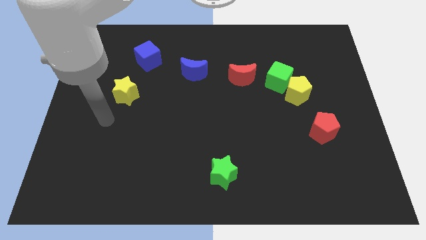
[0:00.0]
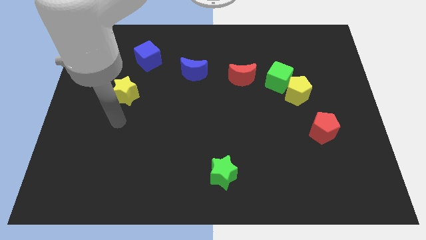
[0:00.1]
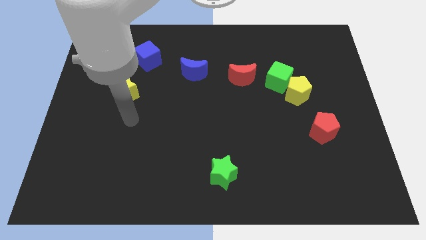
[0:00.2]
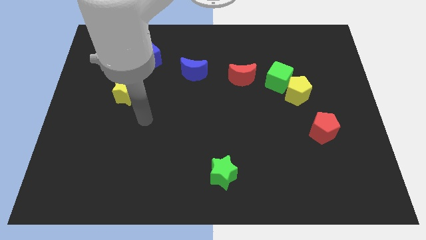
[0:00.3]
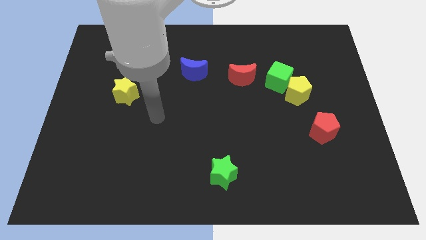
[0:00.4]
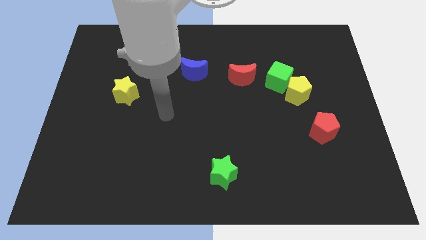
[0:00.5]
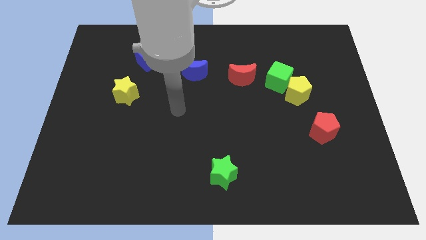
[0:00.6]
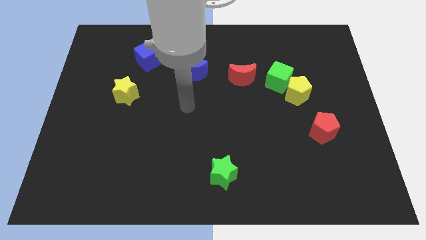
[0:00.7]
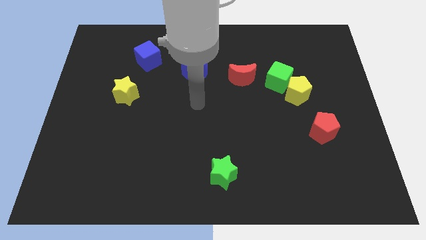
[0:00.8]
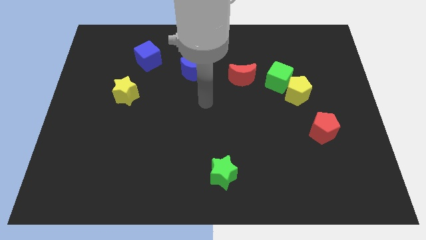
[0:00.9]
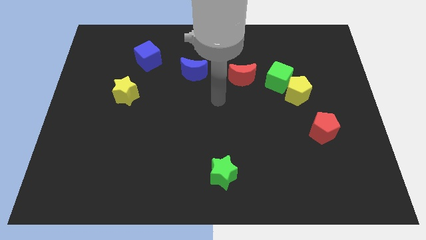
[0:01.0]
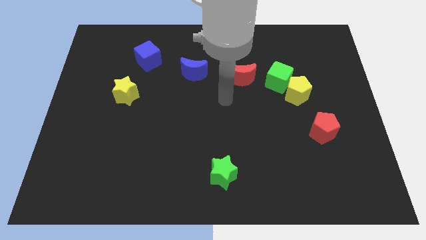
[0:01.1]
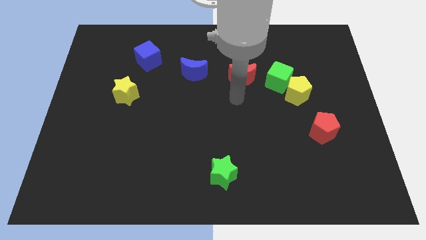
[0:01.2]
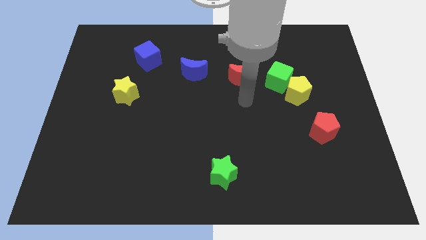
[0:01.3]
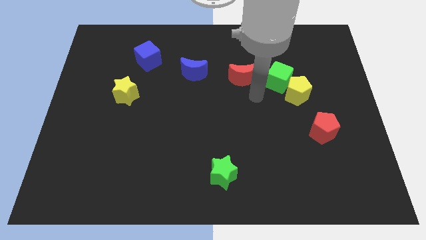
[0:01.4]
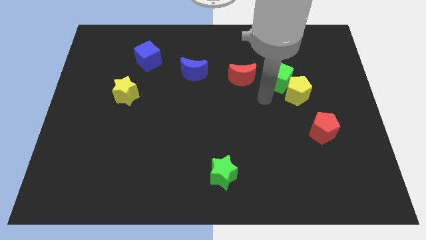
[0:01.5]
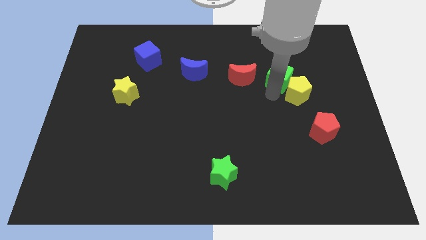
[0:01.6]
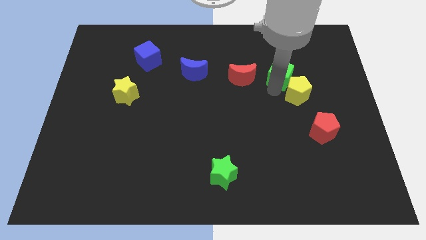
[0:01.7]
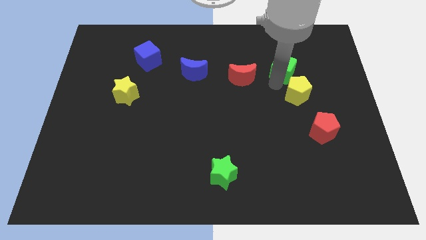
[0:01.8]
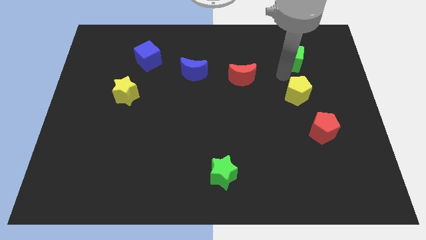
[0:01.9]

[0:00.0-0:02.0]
move the yellow pentagon away from the green cube

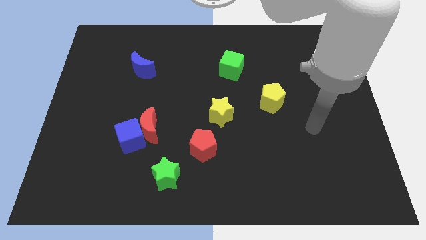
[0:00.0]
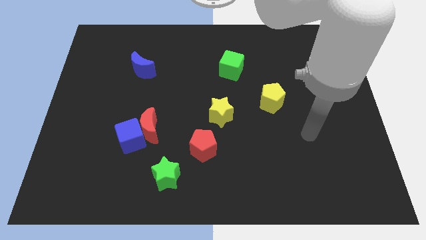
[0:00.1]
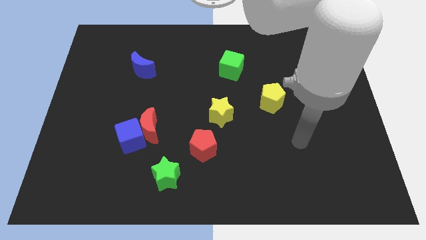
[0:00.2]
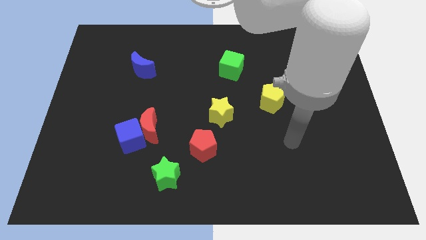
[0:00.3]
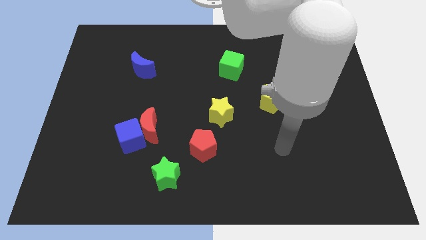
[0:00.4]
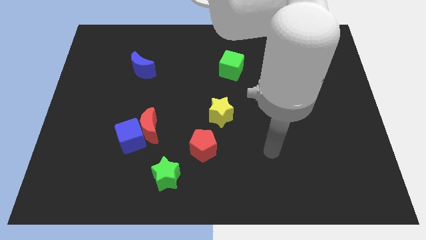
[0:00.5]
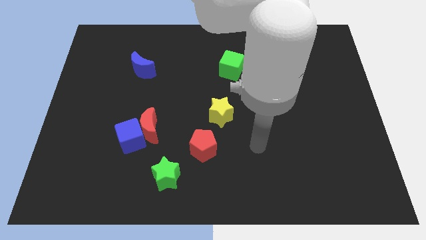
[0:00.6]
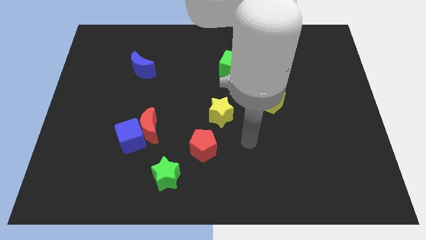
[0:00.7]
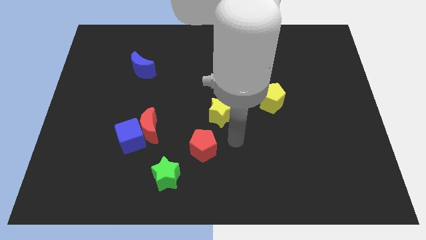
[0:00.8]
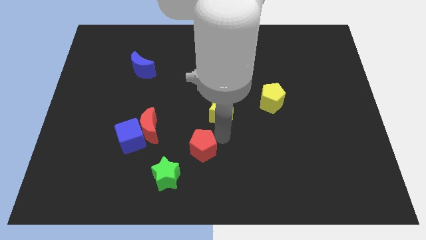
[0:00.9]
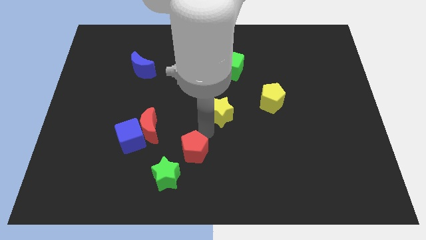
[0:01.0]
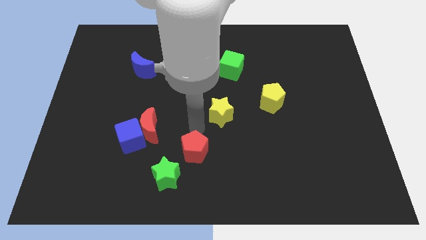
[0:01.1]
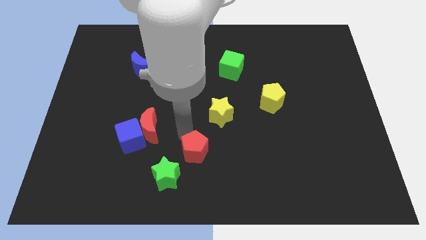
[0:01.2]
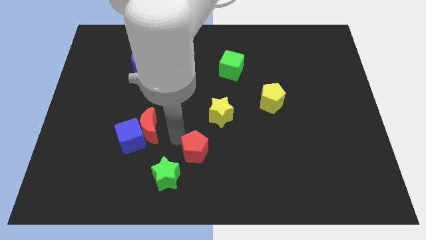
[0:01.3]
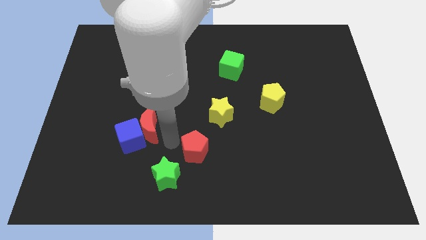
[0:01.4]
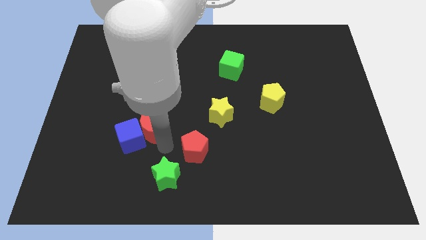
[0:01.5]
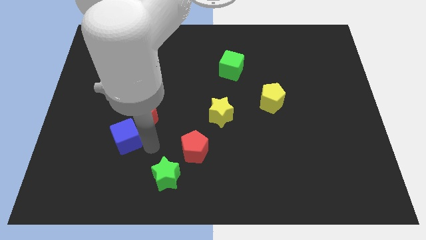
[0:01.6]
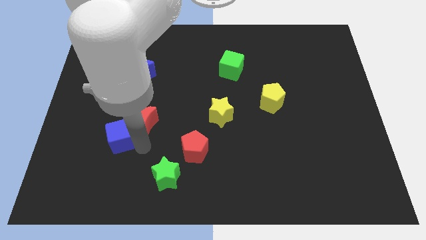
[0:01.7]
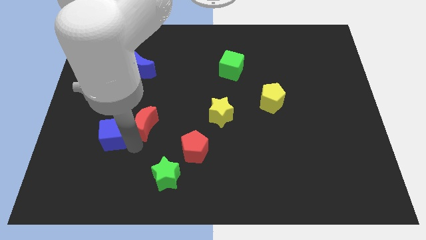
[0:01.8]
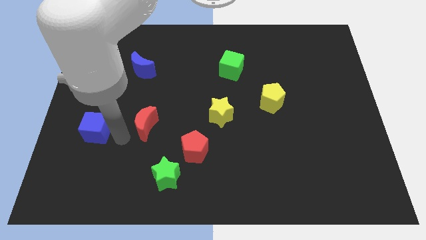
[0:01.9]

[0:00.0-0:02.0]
pull the red moon apart from the blue cube

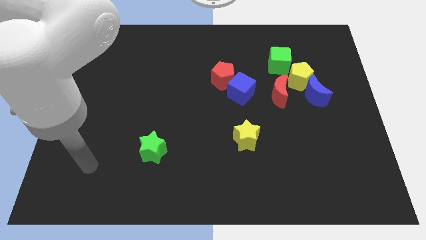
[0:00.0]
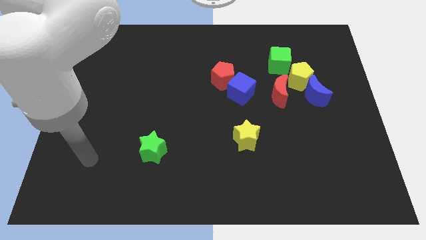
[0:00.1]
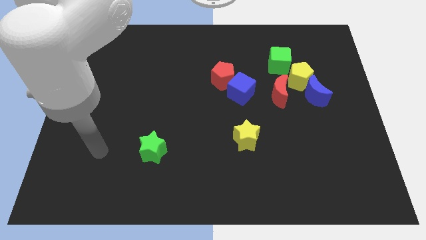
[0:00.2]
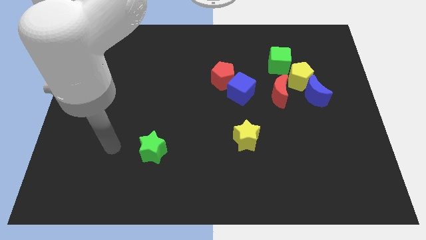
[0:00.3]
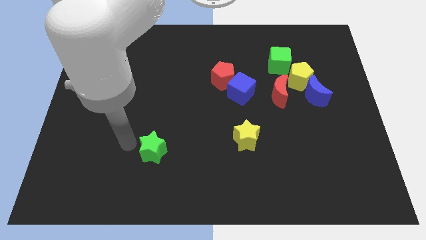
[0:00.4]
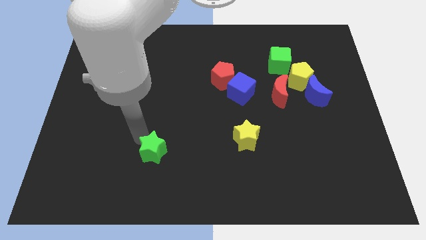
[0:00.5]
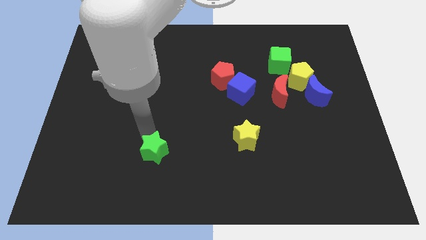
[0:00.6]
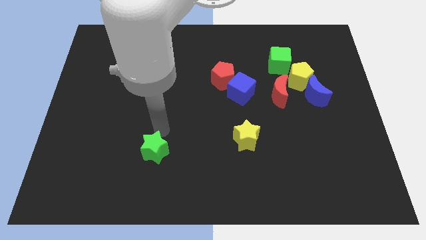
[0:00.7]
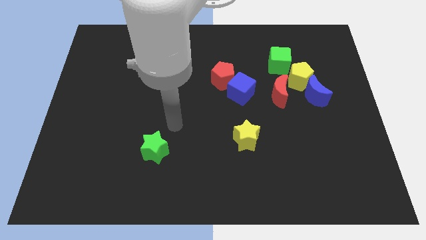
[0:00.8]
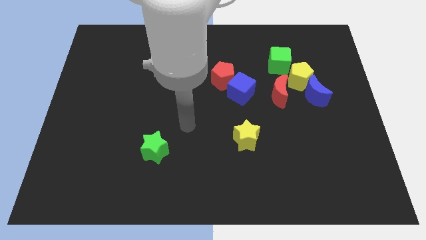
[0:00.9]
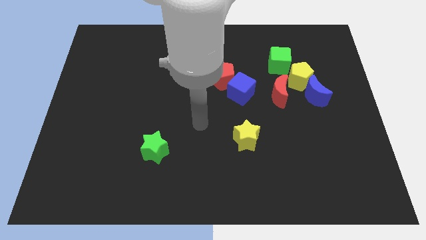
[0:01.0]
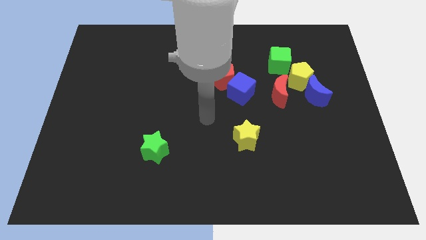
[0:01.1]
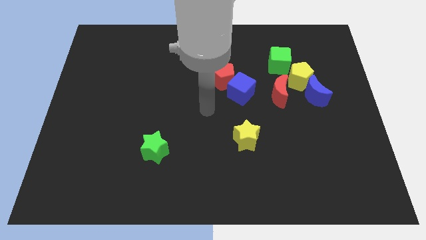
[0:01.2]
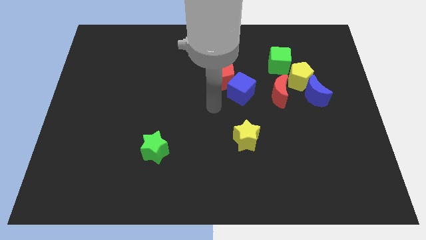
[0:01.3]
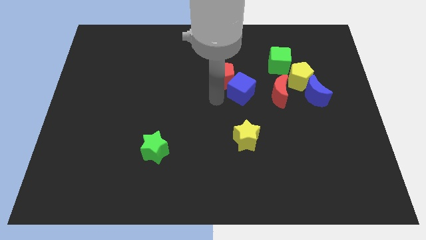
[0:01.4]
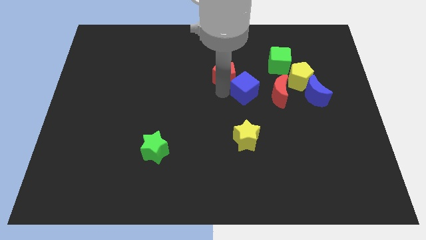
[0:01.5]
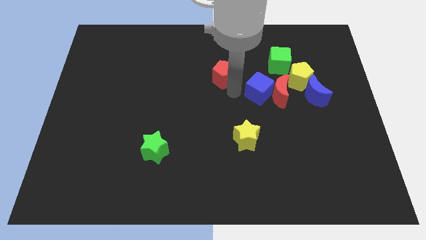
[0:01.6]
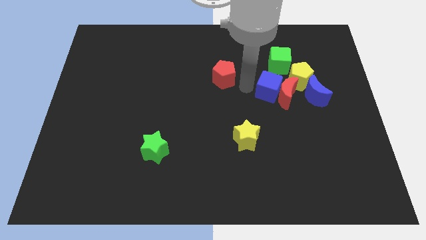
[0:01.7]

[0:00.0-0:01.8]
separate the red pentagon from the blue cube

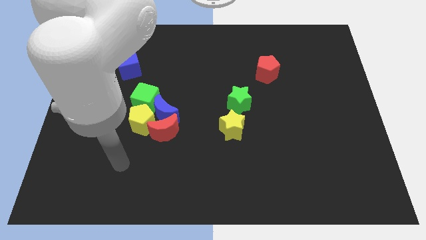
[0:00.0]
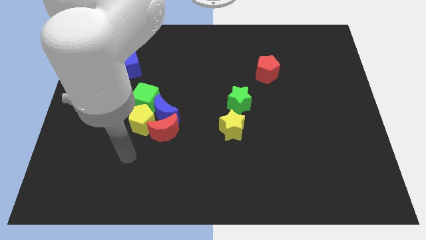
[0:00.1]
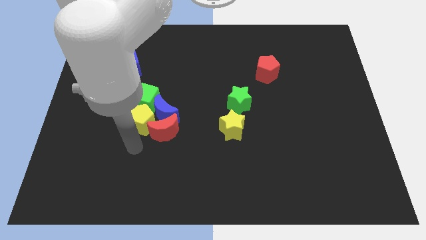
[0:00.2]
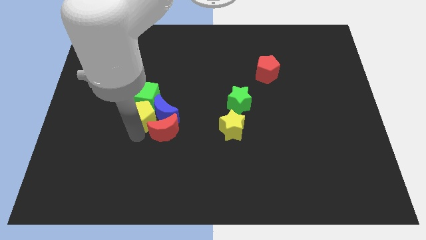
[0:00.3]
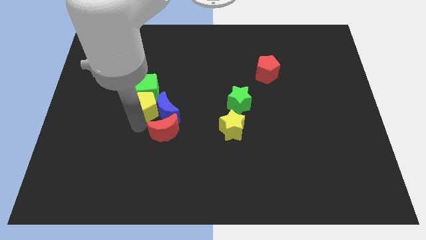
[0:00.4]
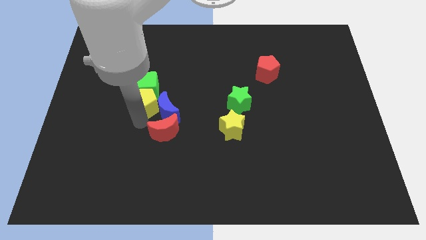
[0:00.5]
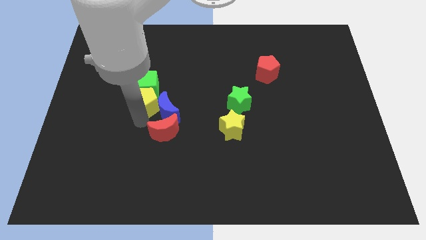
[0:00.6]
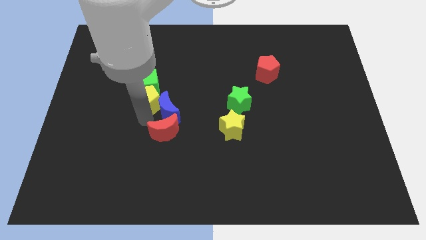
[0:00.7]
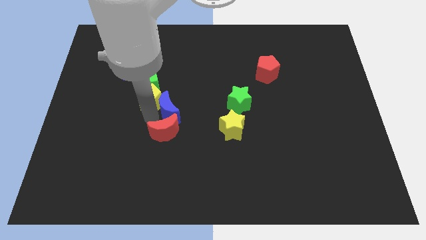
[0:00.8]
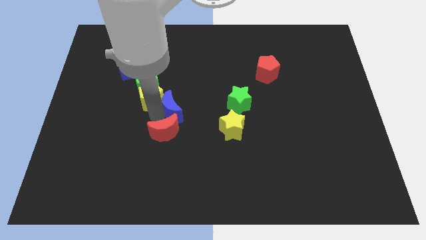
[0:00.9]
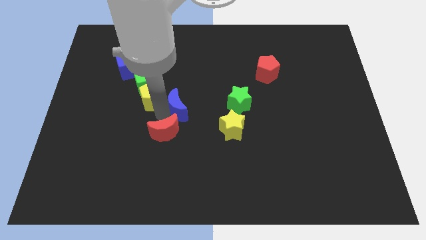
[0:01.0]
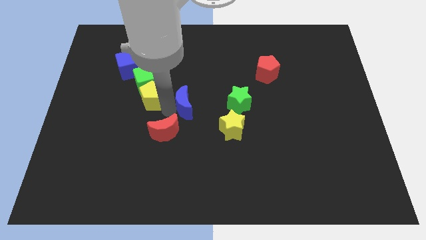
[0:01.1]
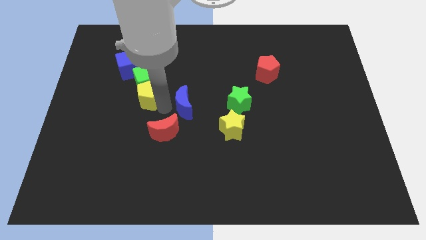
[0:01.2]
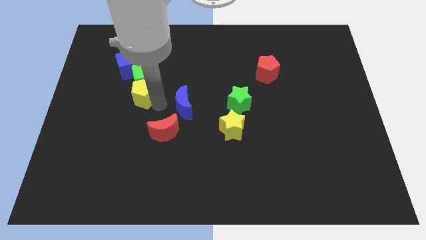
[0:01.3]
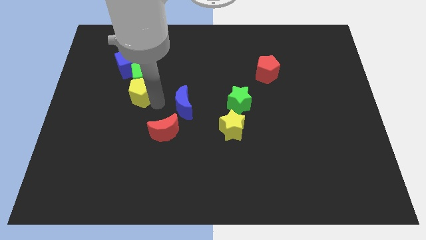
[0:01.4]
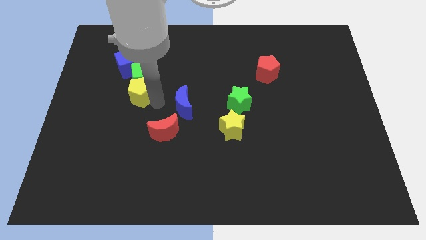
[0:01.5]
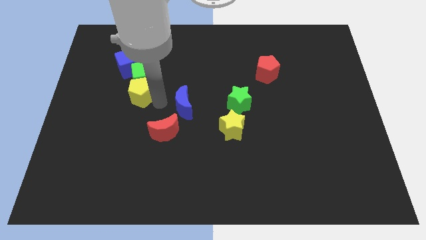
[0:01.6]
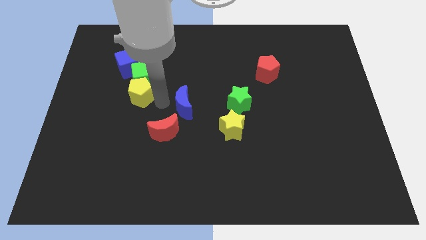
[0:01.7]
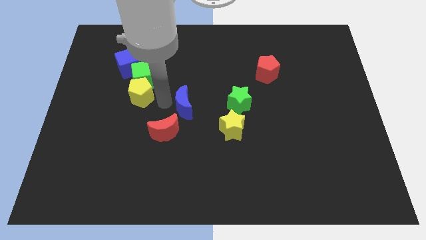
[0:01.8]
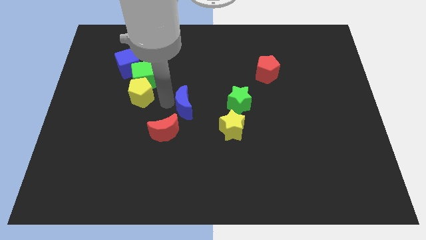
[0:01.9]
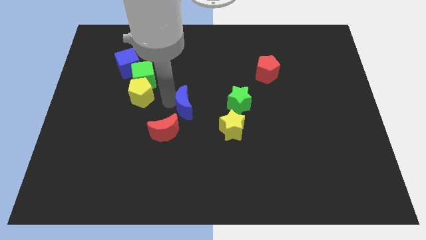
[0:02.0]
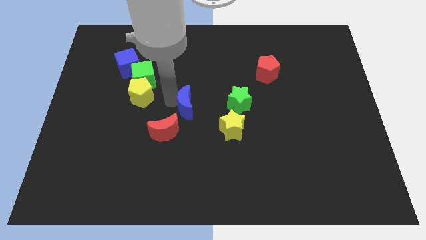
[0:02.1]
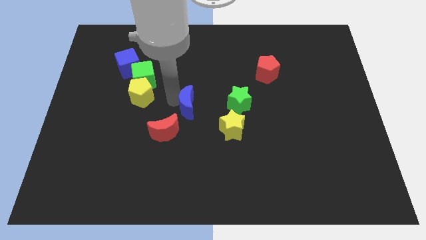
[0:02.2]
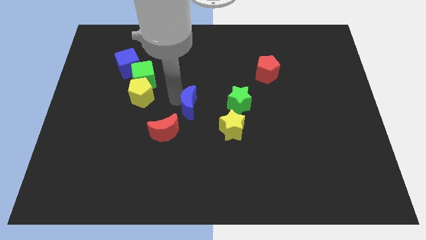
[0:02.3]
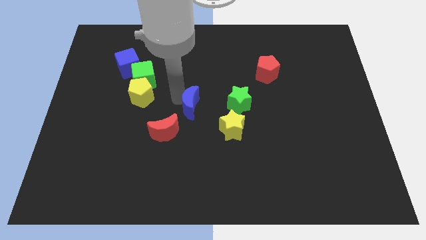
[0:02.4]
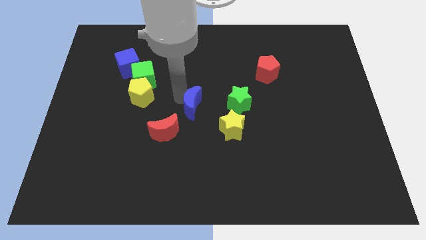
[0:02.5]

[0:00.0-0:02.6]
pull the blue moon apart from the red moon, yellow pentagon, and green cube

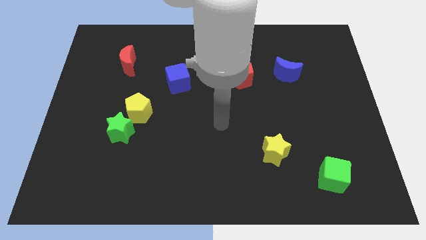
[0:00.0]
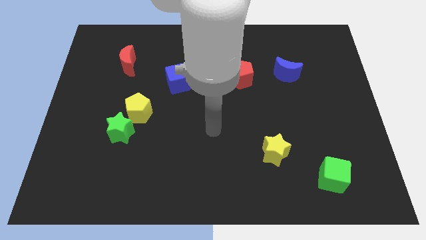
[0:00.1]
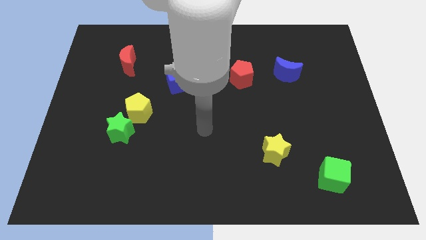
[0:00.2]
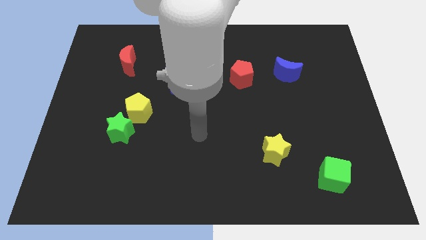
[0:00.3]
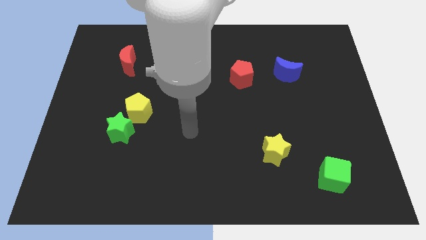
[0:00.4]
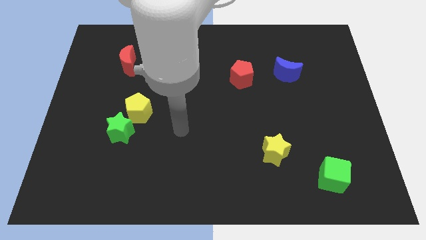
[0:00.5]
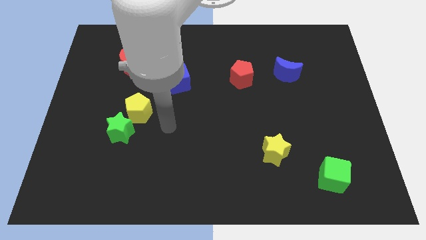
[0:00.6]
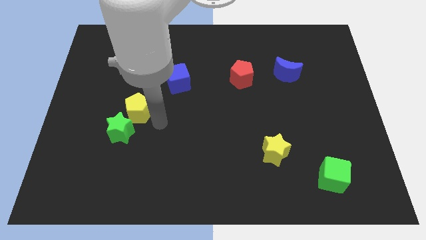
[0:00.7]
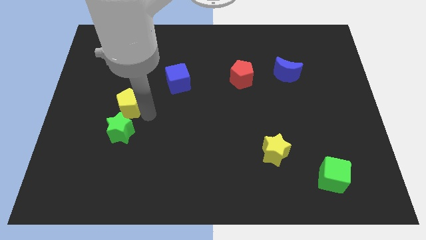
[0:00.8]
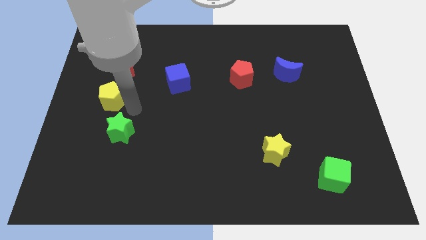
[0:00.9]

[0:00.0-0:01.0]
separate the green star from the yellow pentagon
